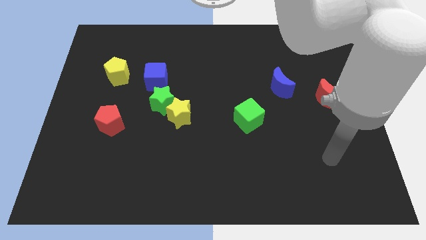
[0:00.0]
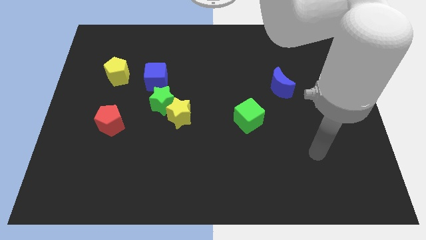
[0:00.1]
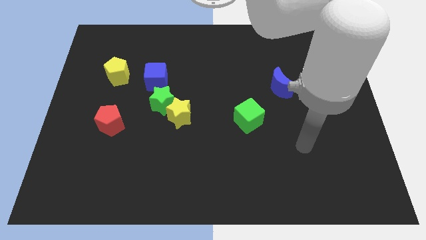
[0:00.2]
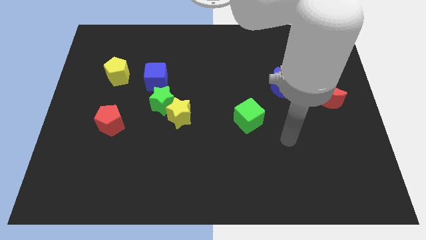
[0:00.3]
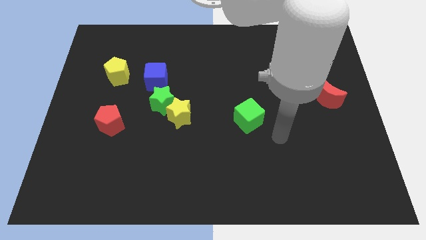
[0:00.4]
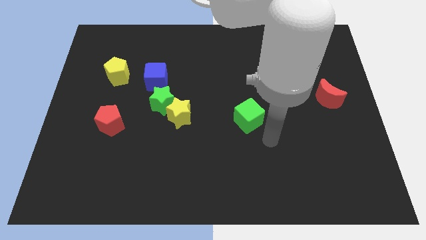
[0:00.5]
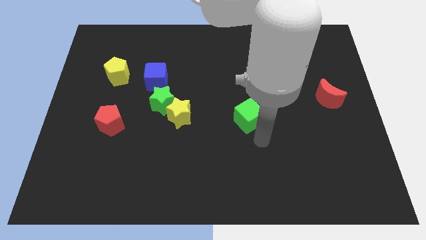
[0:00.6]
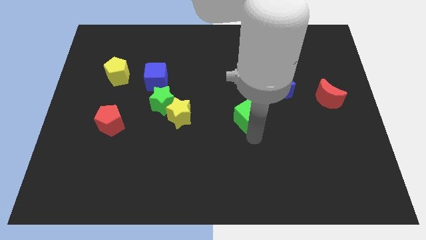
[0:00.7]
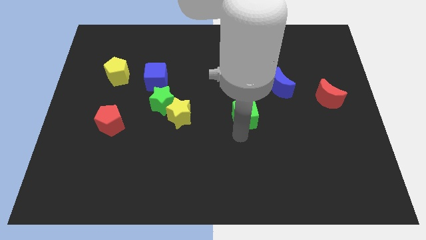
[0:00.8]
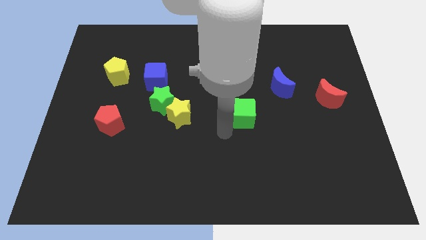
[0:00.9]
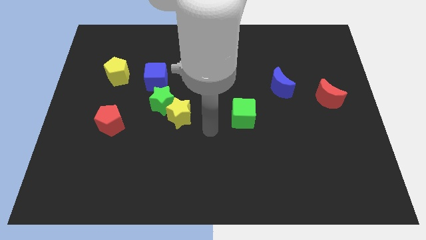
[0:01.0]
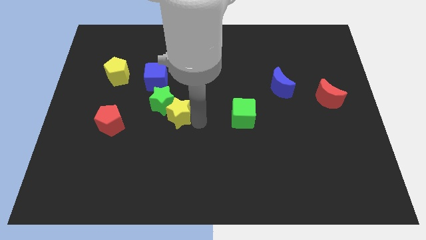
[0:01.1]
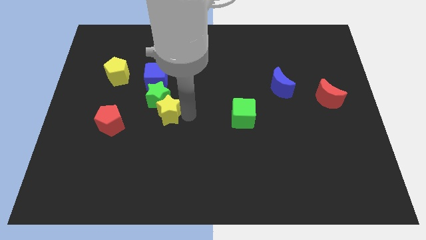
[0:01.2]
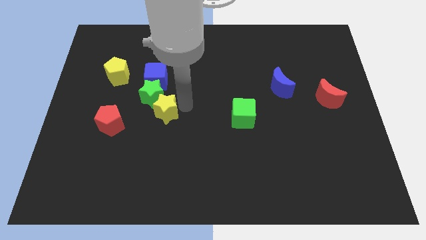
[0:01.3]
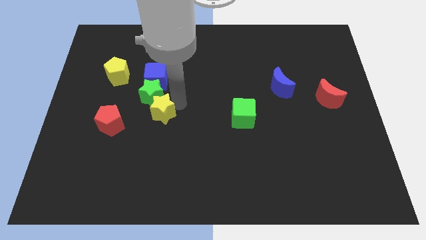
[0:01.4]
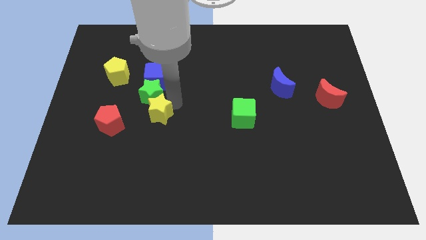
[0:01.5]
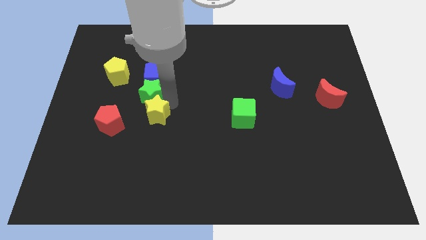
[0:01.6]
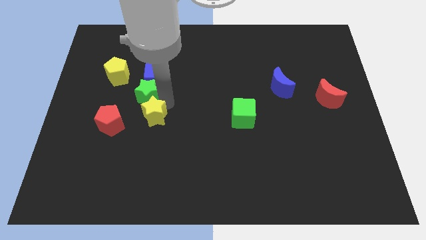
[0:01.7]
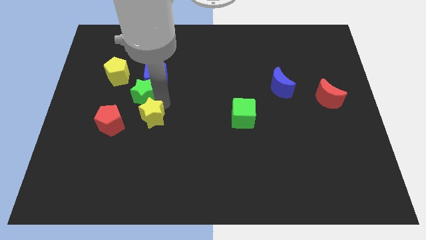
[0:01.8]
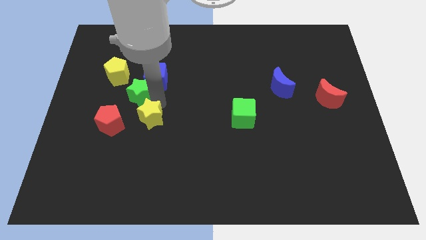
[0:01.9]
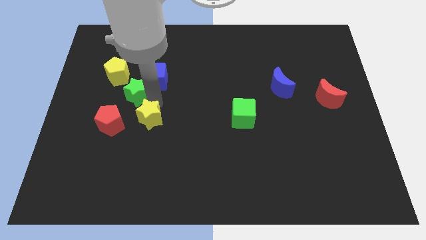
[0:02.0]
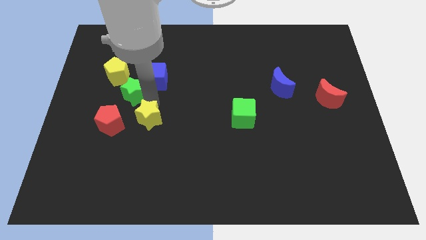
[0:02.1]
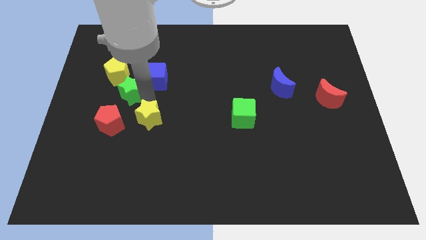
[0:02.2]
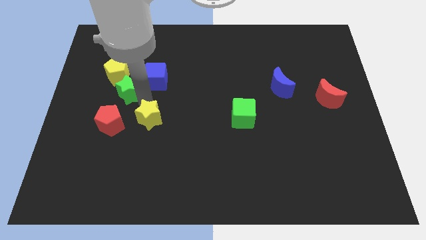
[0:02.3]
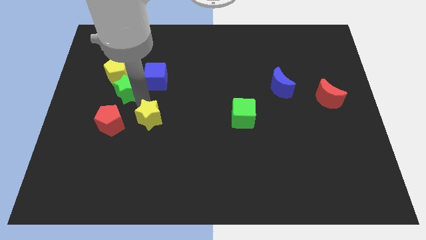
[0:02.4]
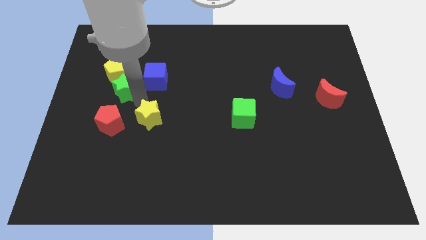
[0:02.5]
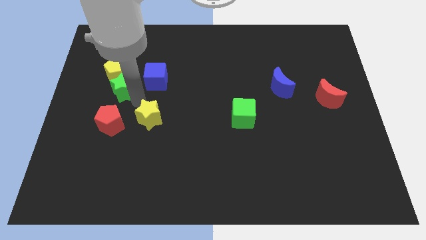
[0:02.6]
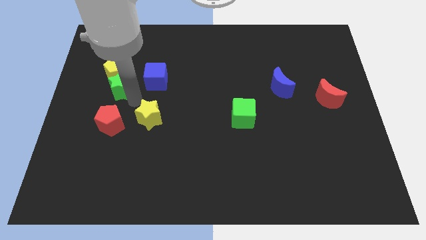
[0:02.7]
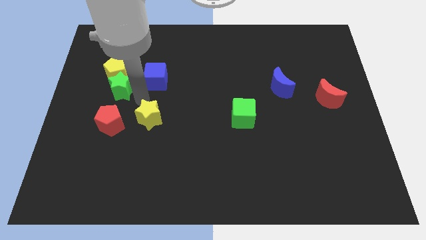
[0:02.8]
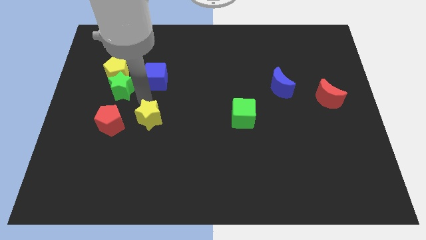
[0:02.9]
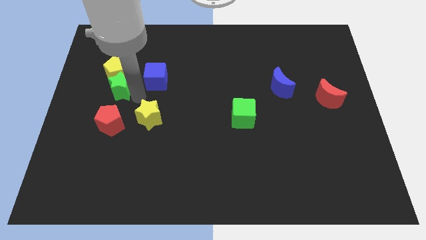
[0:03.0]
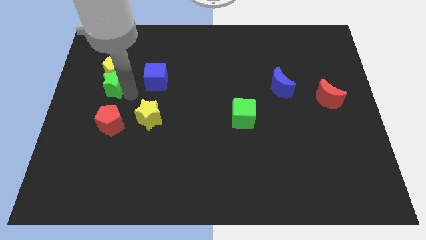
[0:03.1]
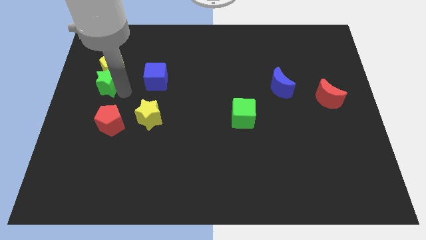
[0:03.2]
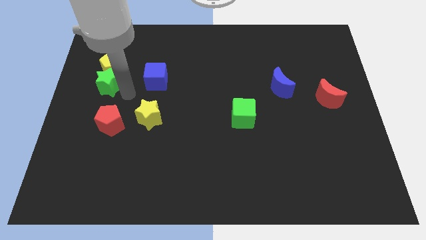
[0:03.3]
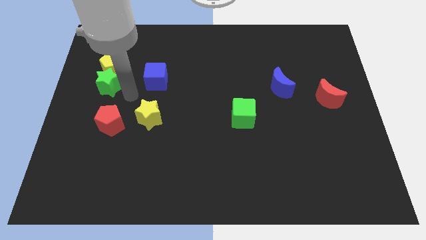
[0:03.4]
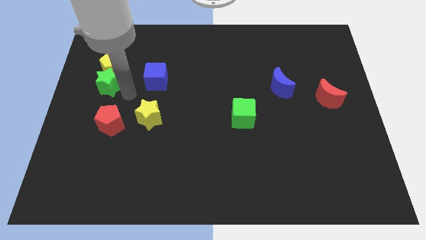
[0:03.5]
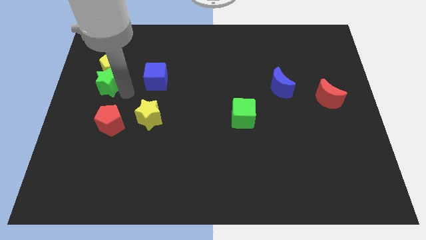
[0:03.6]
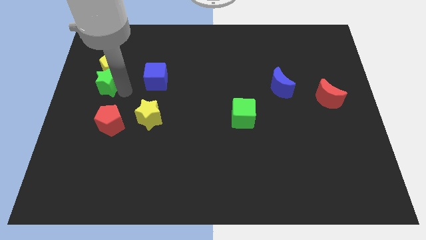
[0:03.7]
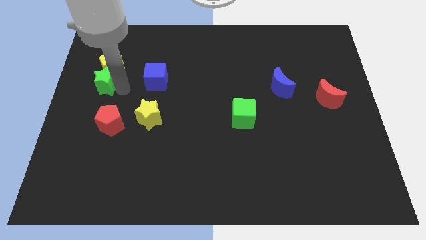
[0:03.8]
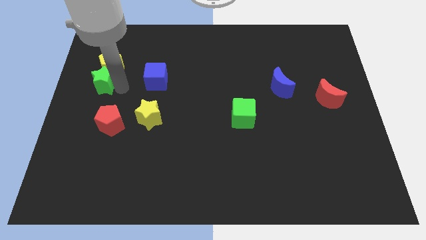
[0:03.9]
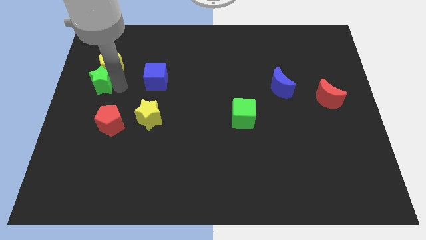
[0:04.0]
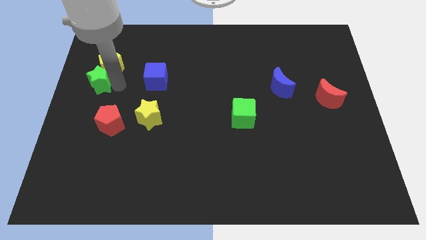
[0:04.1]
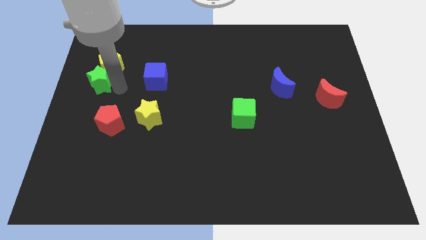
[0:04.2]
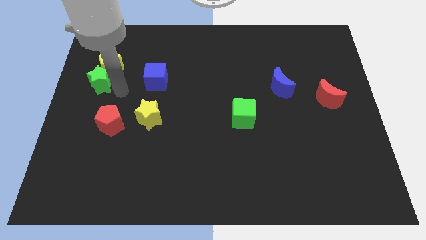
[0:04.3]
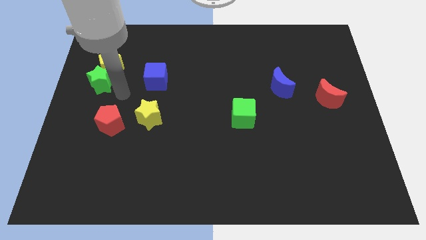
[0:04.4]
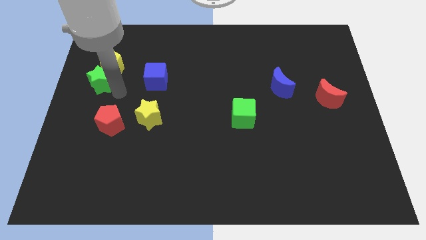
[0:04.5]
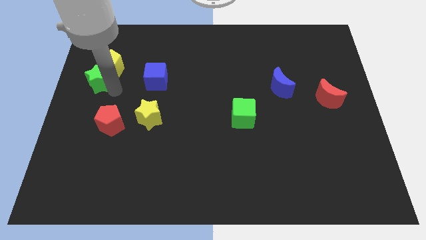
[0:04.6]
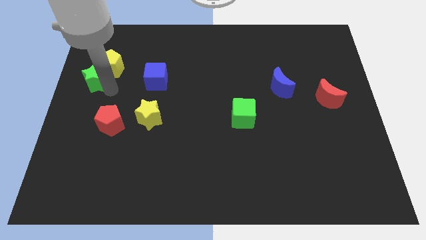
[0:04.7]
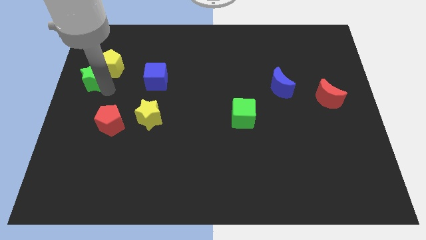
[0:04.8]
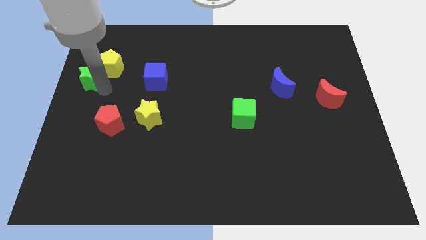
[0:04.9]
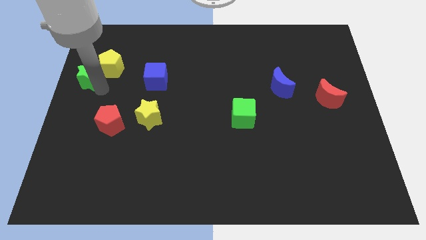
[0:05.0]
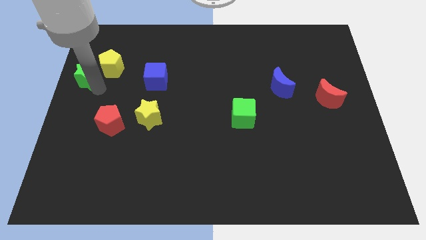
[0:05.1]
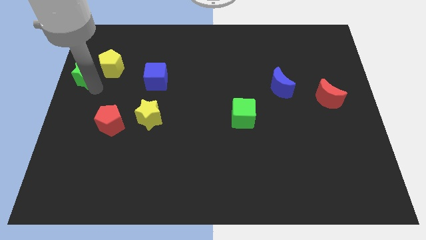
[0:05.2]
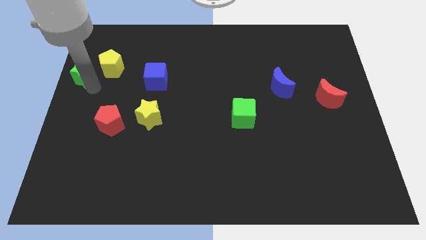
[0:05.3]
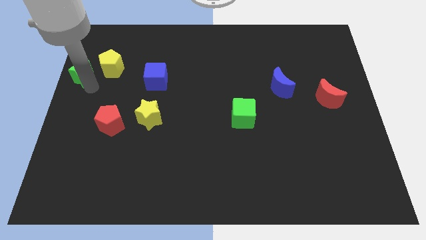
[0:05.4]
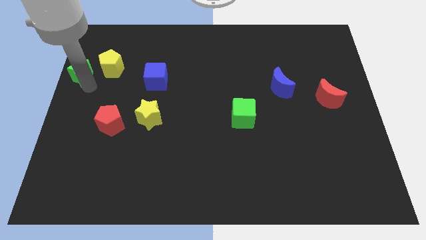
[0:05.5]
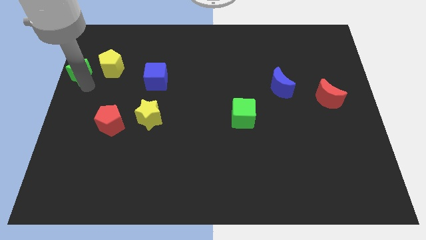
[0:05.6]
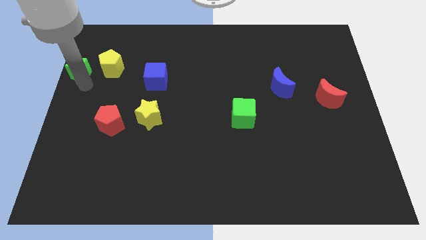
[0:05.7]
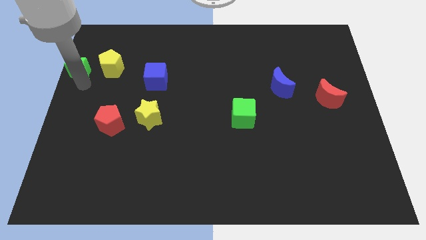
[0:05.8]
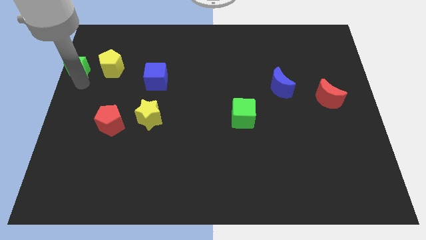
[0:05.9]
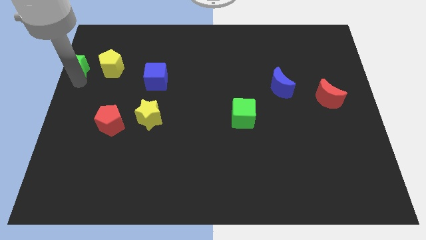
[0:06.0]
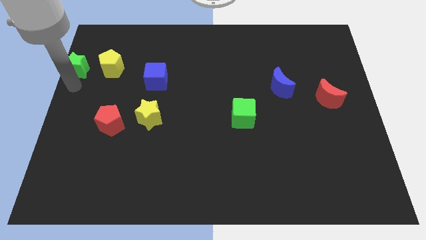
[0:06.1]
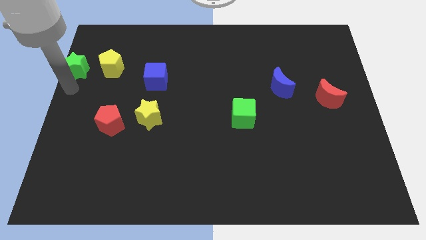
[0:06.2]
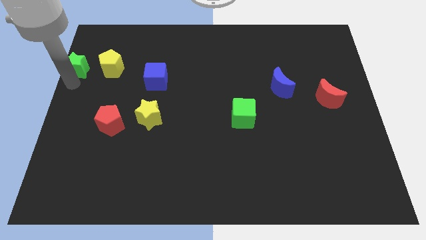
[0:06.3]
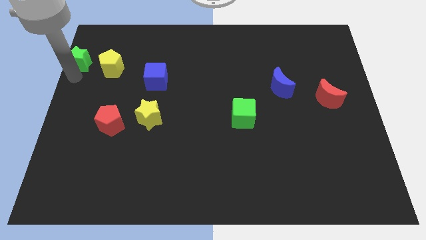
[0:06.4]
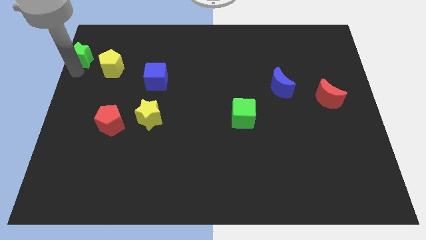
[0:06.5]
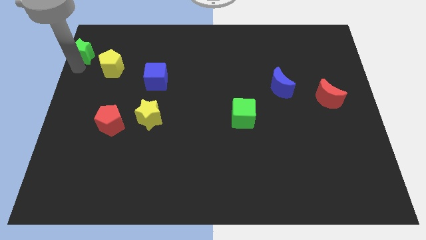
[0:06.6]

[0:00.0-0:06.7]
push the green star to the top left corner
